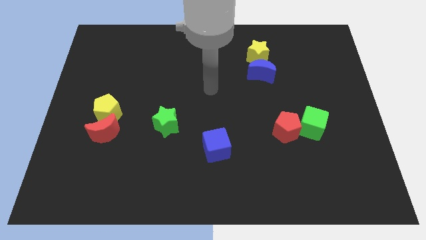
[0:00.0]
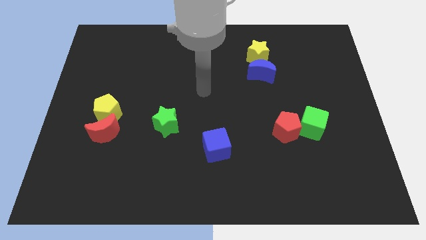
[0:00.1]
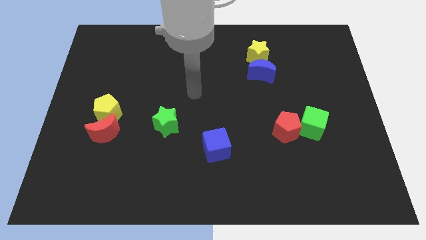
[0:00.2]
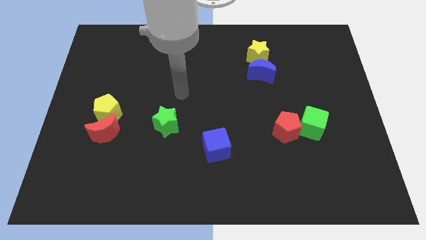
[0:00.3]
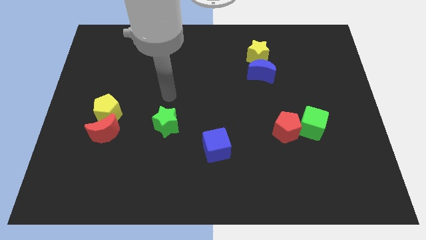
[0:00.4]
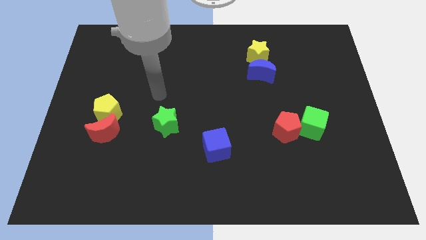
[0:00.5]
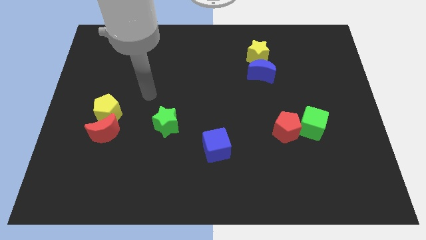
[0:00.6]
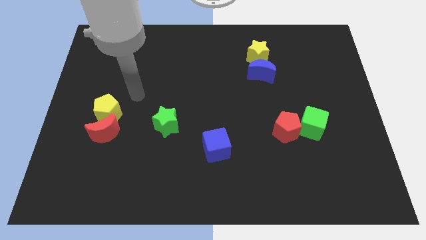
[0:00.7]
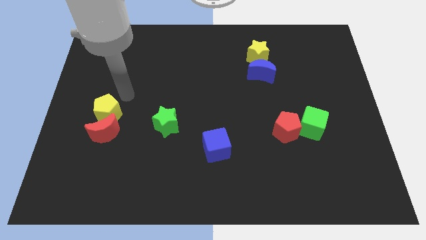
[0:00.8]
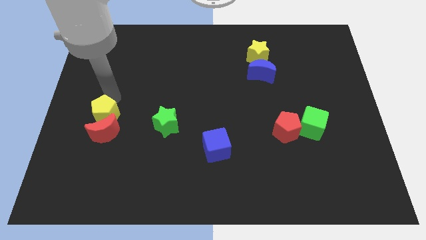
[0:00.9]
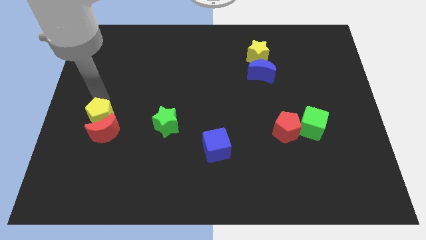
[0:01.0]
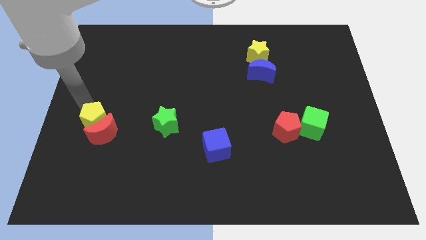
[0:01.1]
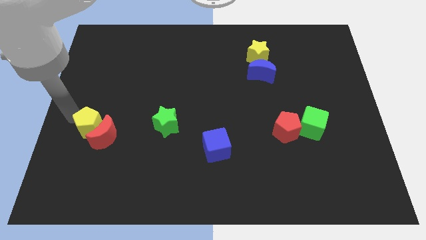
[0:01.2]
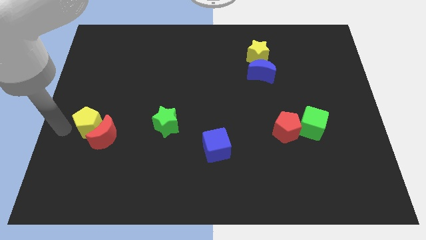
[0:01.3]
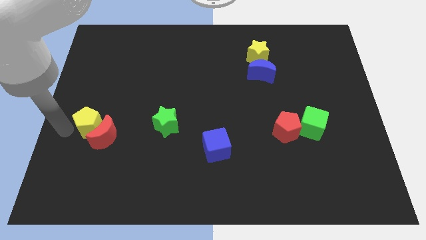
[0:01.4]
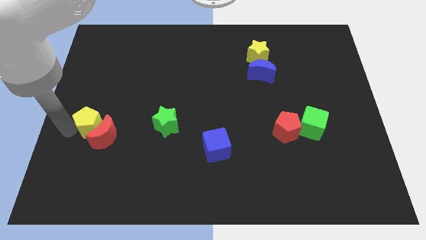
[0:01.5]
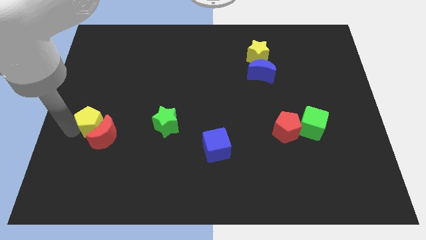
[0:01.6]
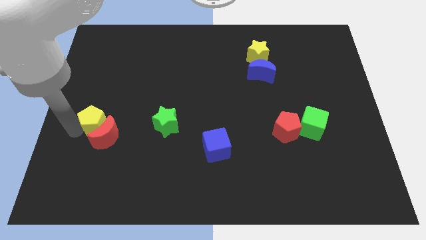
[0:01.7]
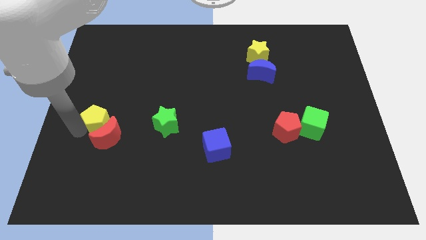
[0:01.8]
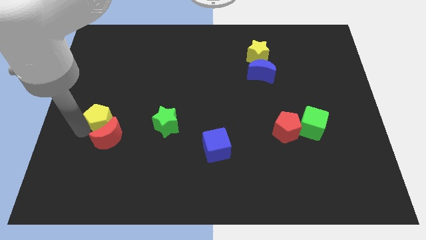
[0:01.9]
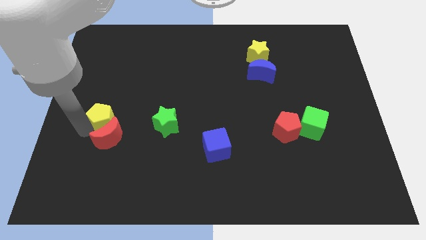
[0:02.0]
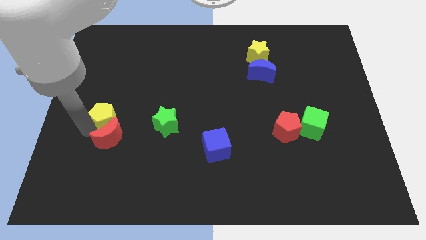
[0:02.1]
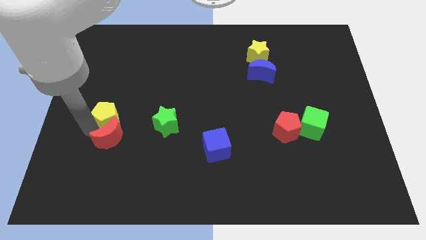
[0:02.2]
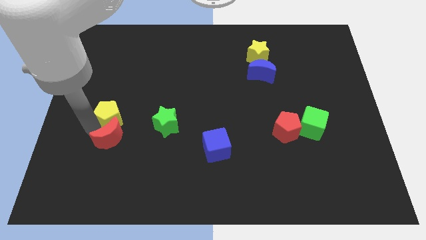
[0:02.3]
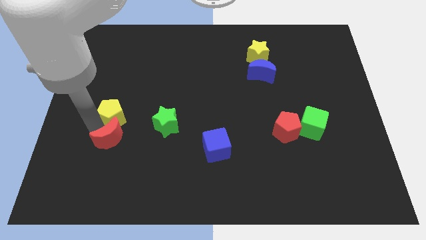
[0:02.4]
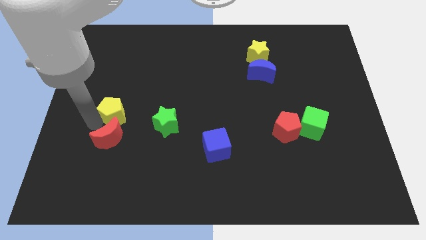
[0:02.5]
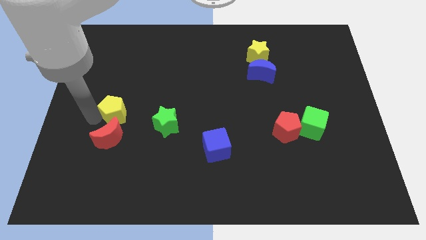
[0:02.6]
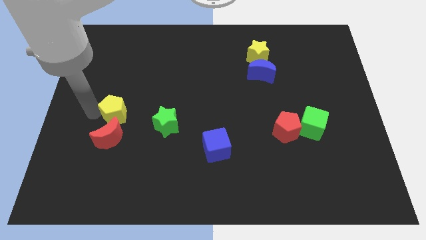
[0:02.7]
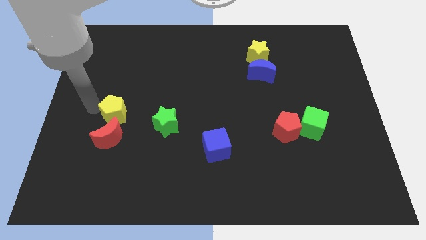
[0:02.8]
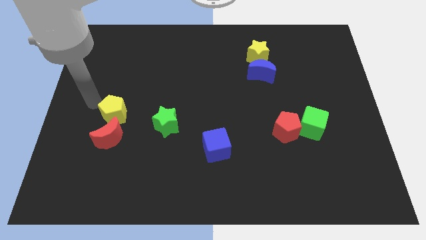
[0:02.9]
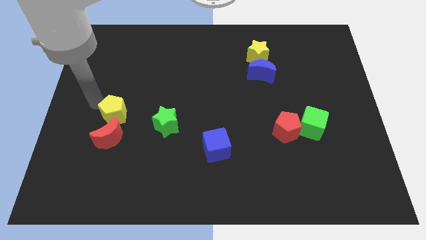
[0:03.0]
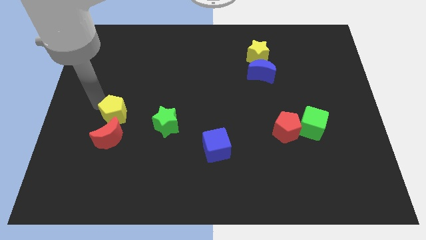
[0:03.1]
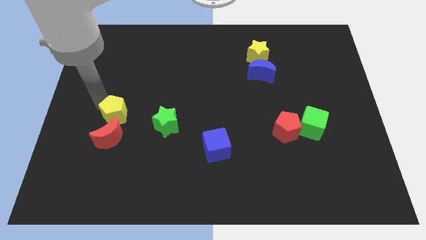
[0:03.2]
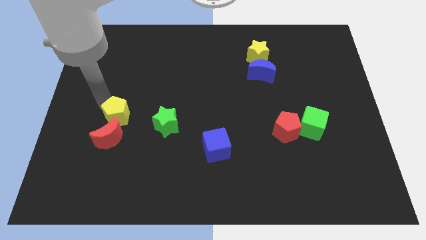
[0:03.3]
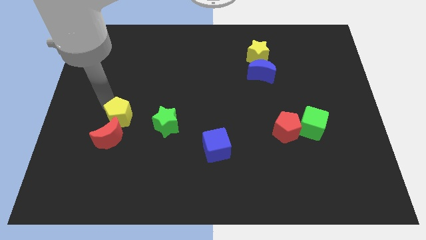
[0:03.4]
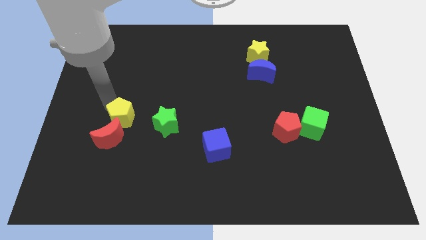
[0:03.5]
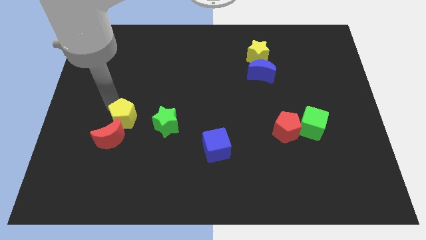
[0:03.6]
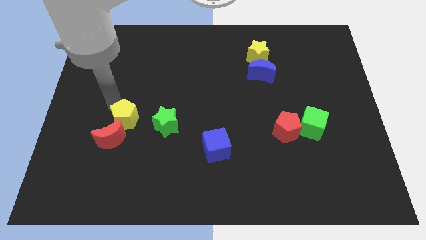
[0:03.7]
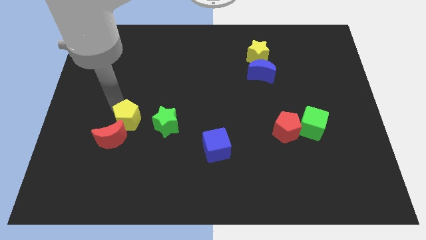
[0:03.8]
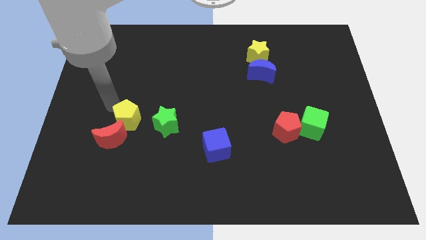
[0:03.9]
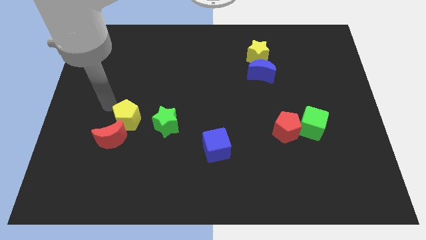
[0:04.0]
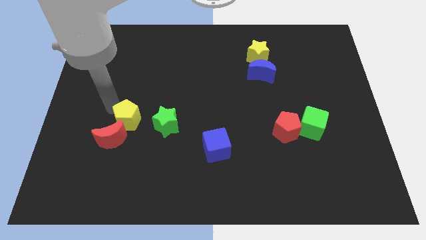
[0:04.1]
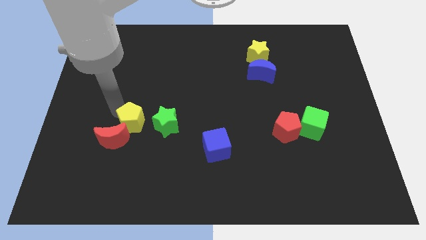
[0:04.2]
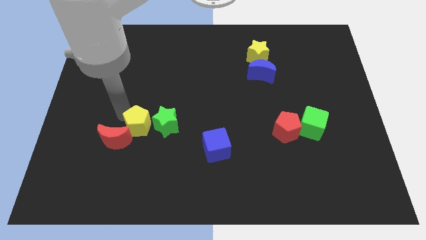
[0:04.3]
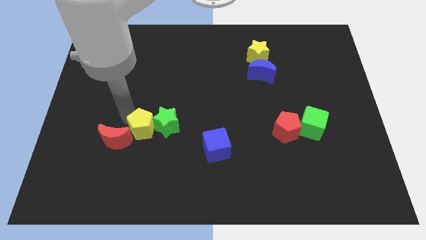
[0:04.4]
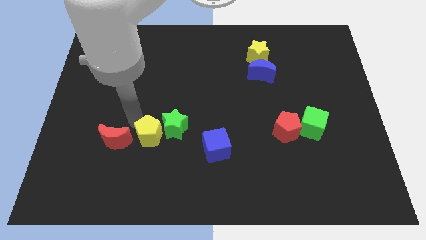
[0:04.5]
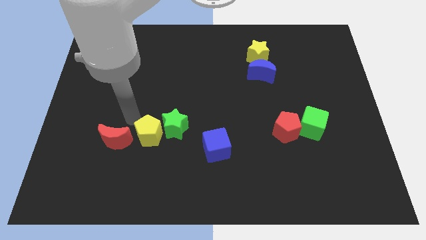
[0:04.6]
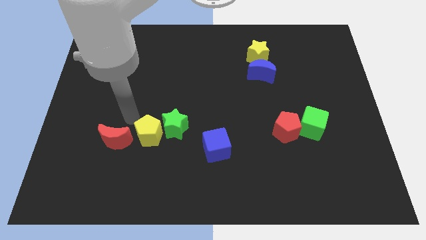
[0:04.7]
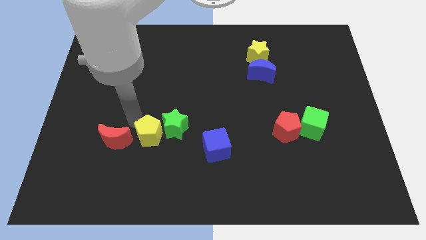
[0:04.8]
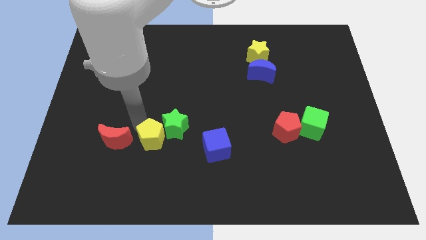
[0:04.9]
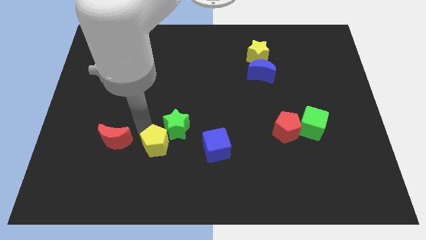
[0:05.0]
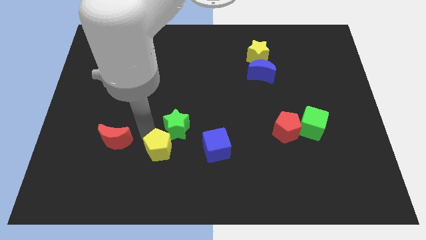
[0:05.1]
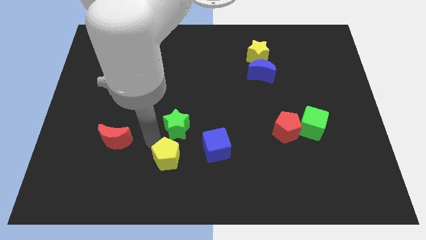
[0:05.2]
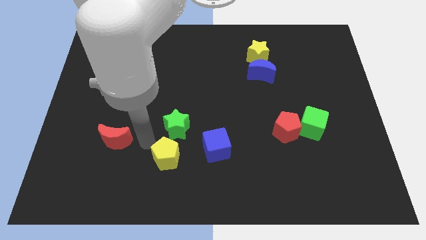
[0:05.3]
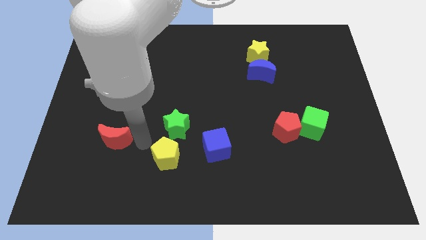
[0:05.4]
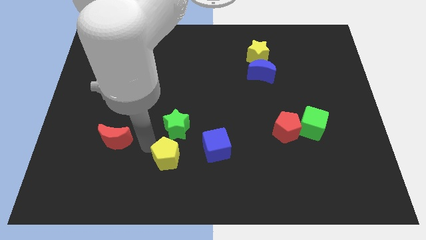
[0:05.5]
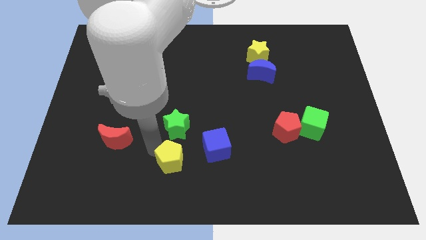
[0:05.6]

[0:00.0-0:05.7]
move the yellow pentagon to the bottom left of the blue cube

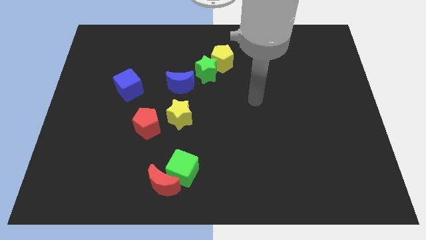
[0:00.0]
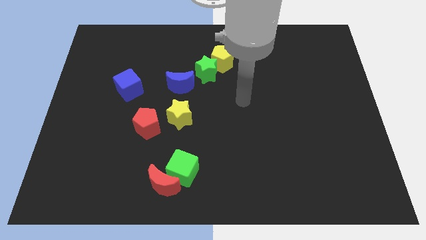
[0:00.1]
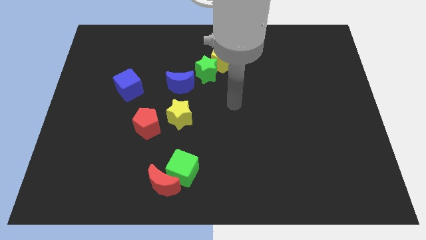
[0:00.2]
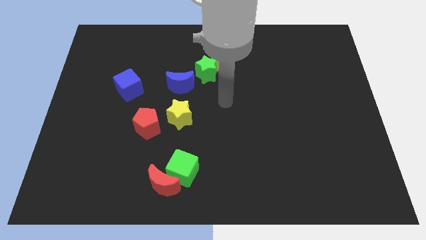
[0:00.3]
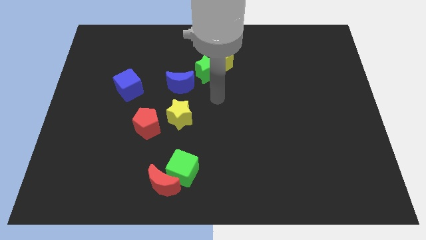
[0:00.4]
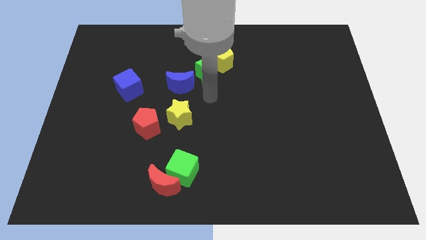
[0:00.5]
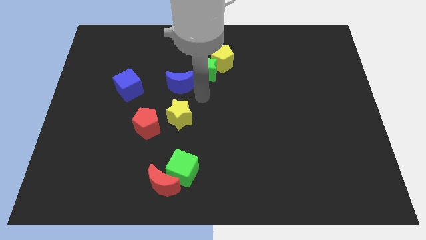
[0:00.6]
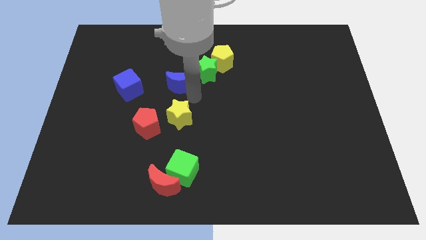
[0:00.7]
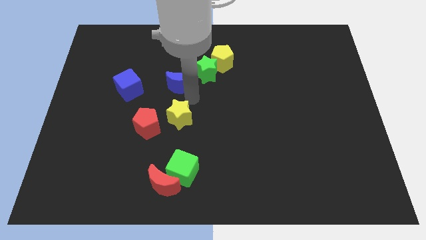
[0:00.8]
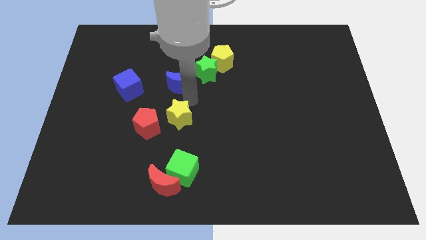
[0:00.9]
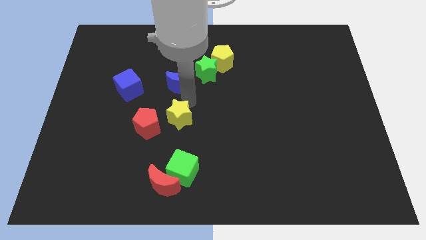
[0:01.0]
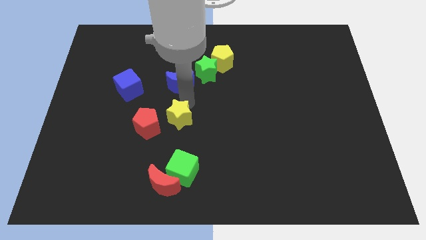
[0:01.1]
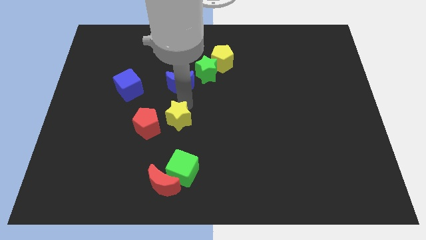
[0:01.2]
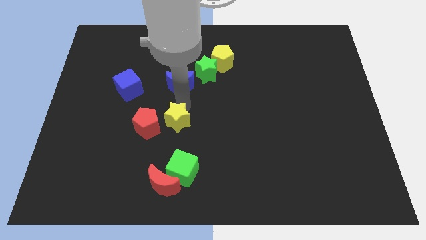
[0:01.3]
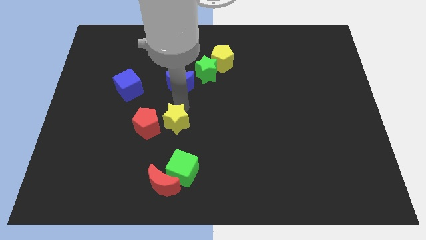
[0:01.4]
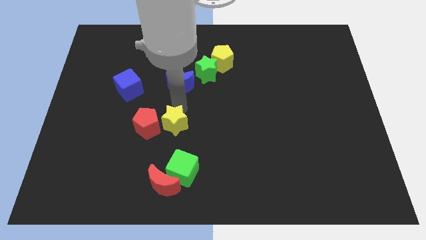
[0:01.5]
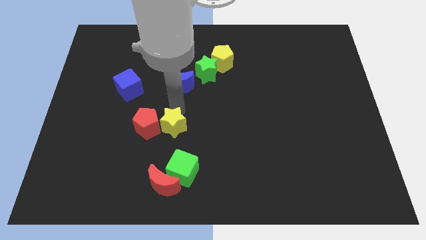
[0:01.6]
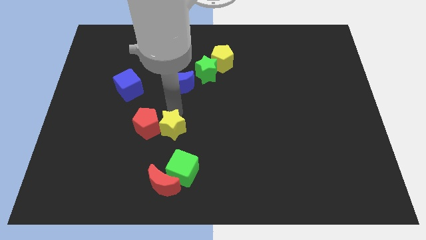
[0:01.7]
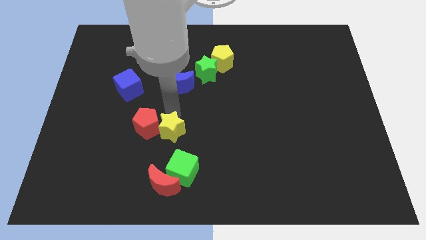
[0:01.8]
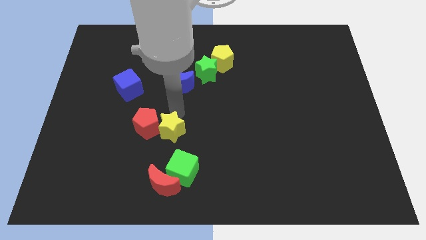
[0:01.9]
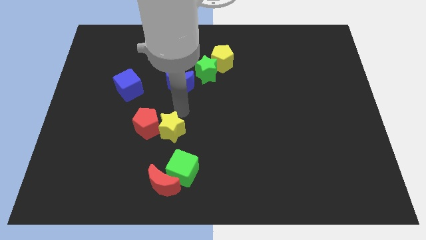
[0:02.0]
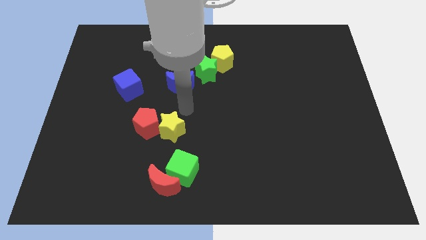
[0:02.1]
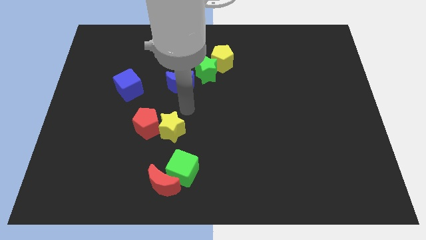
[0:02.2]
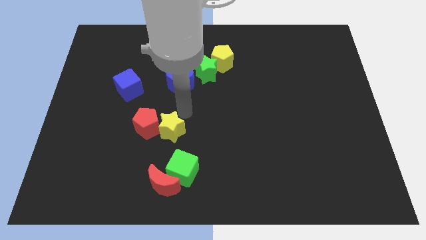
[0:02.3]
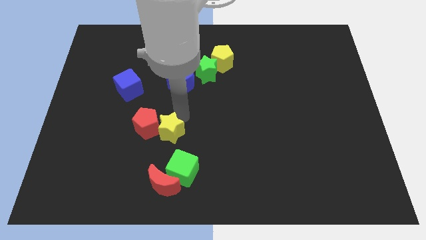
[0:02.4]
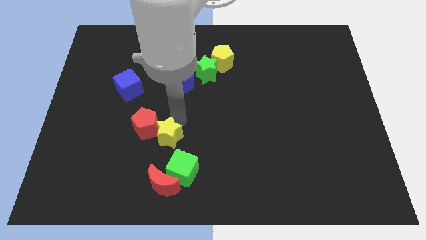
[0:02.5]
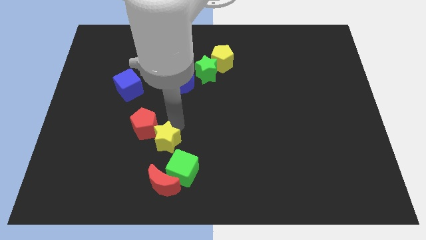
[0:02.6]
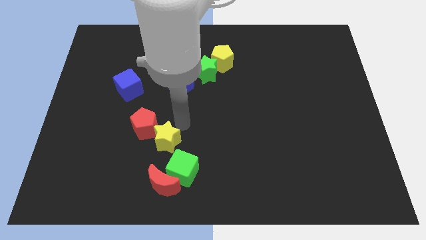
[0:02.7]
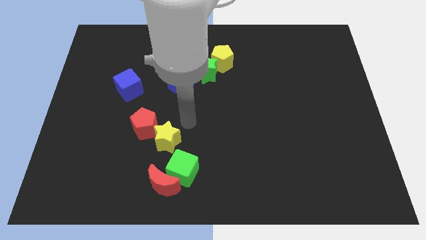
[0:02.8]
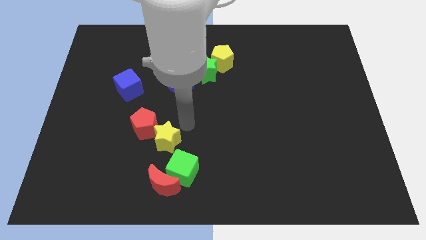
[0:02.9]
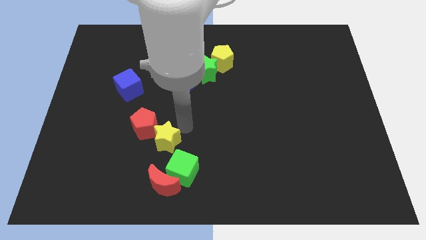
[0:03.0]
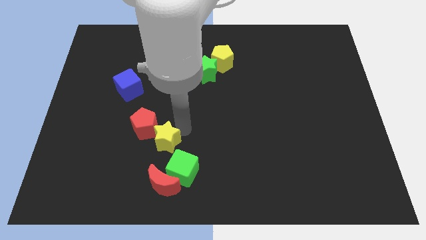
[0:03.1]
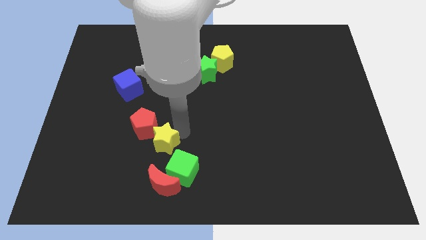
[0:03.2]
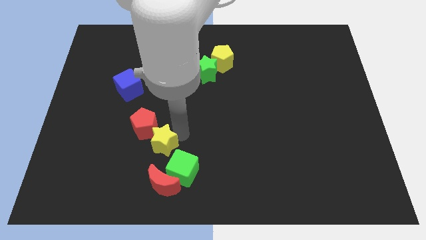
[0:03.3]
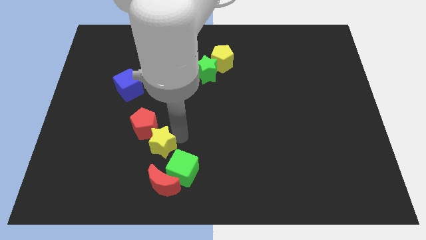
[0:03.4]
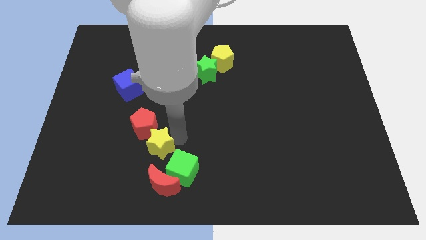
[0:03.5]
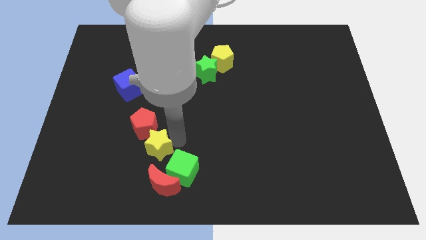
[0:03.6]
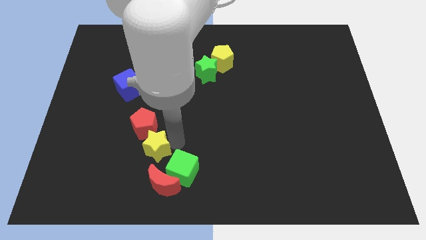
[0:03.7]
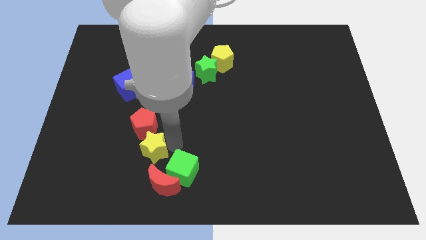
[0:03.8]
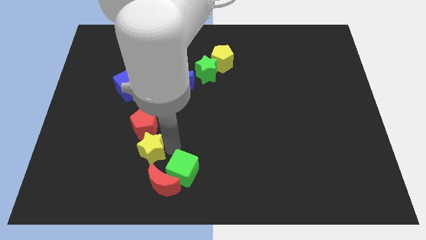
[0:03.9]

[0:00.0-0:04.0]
push the yellow star to the left side of the green cube
